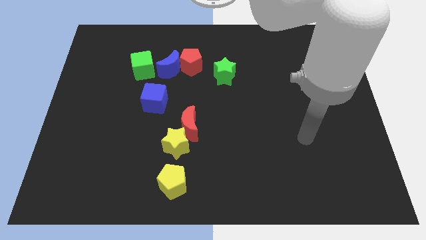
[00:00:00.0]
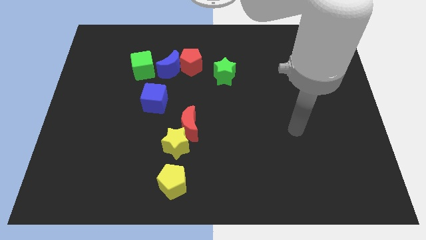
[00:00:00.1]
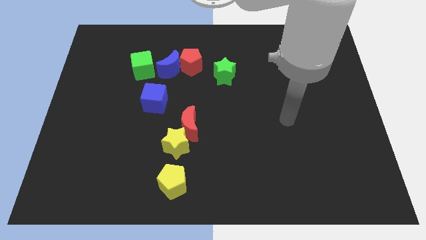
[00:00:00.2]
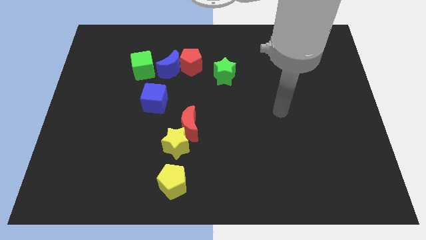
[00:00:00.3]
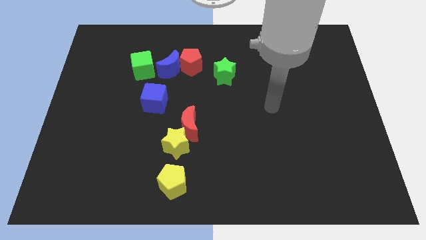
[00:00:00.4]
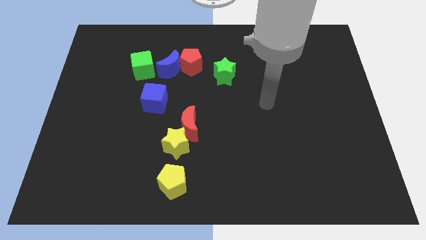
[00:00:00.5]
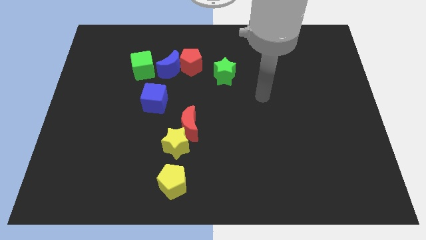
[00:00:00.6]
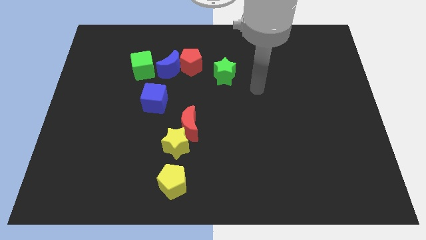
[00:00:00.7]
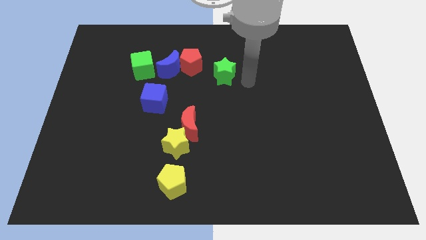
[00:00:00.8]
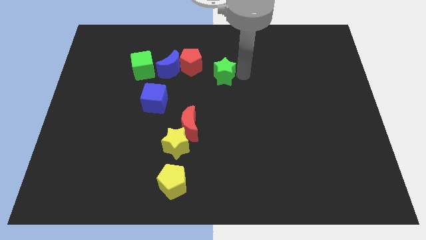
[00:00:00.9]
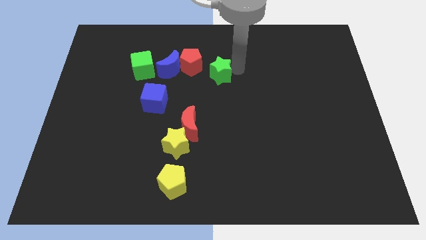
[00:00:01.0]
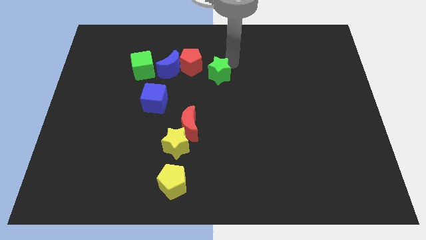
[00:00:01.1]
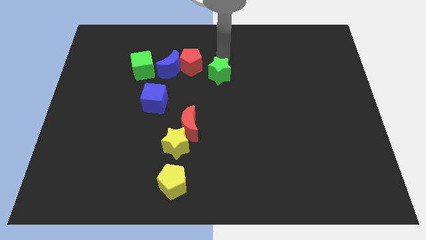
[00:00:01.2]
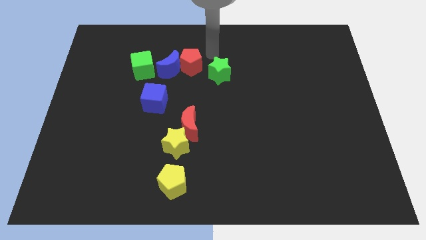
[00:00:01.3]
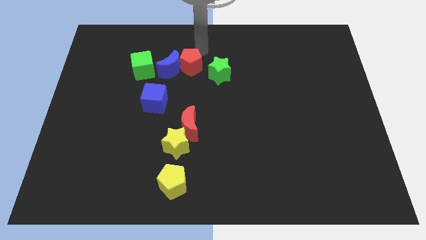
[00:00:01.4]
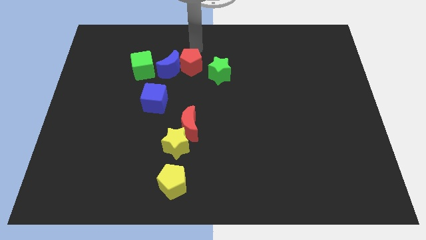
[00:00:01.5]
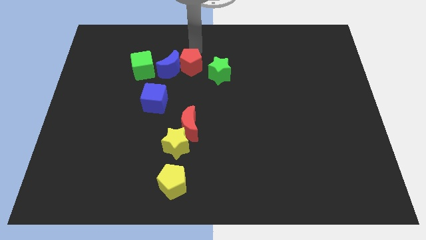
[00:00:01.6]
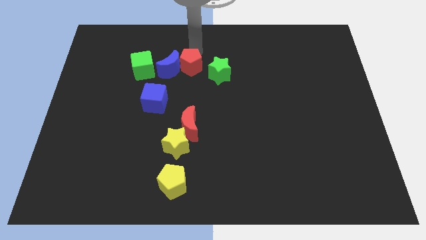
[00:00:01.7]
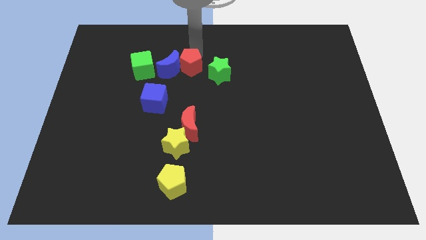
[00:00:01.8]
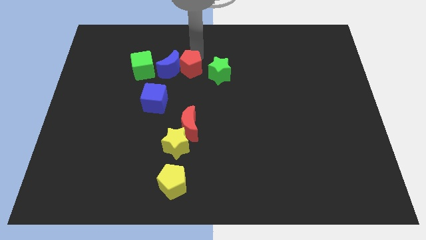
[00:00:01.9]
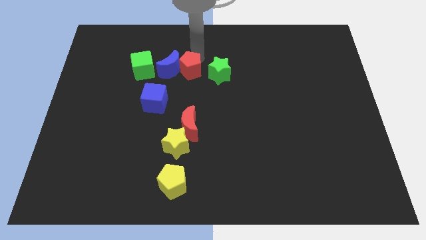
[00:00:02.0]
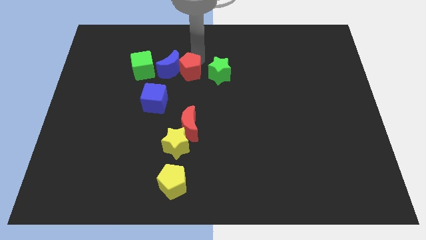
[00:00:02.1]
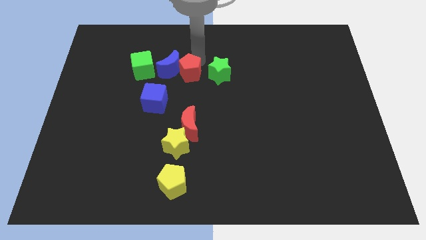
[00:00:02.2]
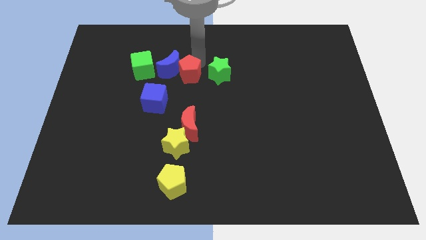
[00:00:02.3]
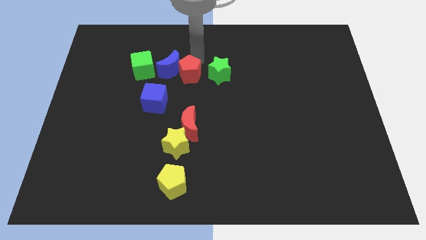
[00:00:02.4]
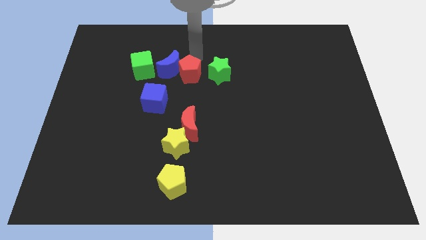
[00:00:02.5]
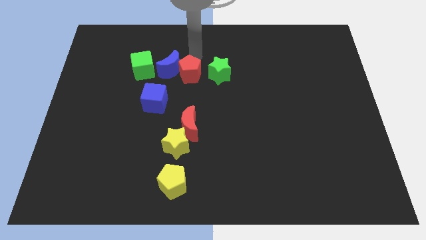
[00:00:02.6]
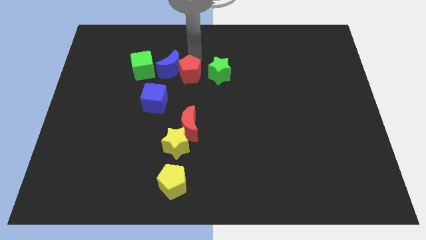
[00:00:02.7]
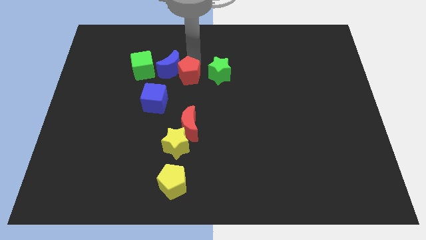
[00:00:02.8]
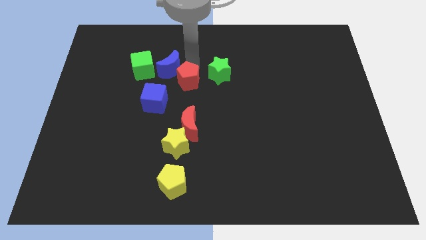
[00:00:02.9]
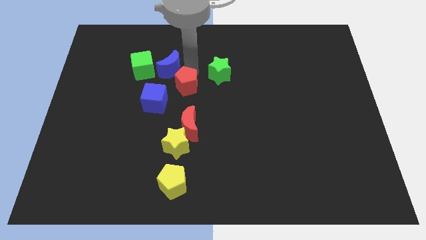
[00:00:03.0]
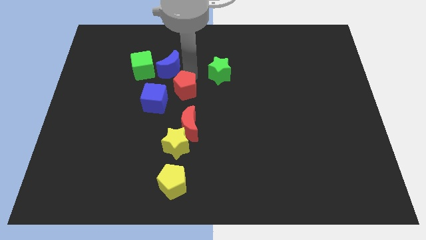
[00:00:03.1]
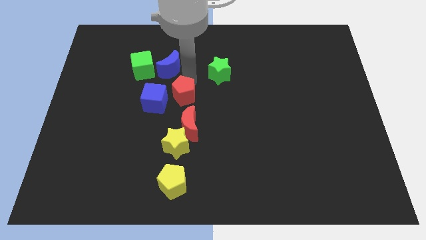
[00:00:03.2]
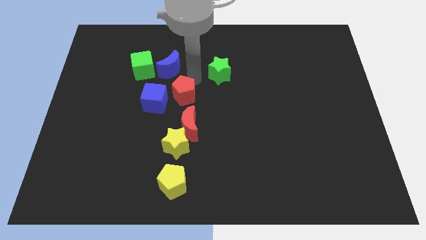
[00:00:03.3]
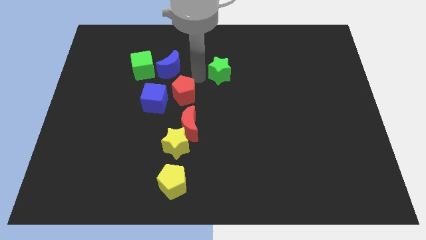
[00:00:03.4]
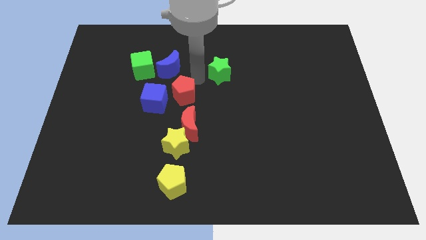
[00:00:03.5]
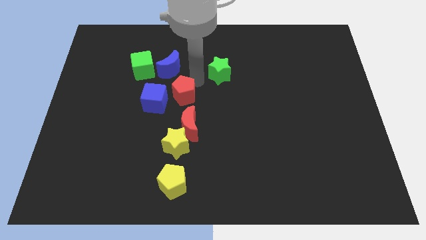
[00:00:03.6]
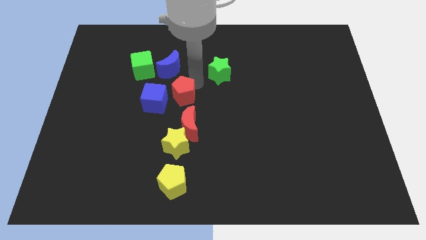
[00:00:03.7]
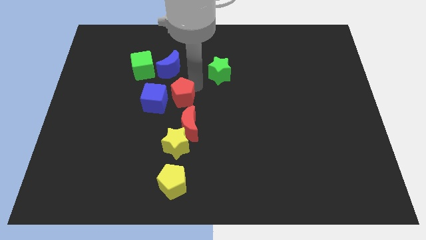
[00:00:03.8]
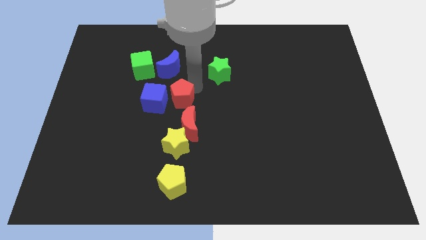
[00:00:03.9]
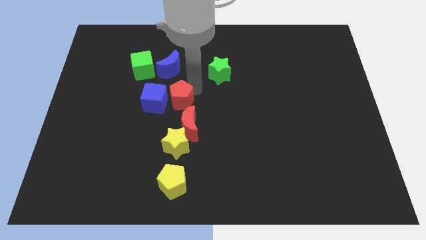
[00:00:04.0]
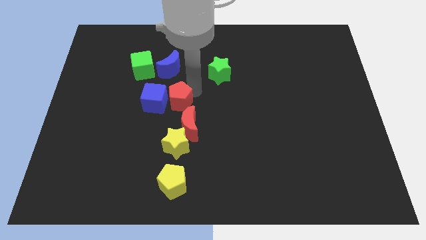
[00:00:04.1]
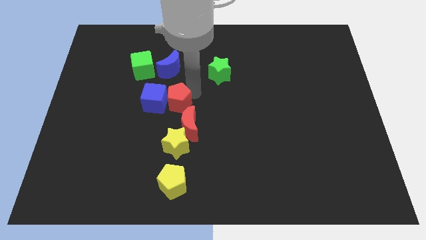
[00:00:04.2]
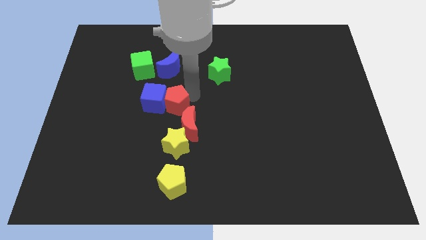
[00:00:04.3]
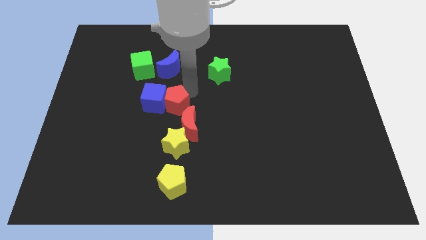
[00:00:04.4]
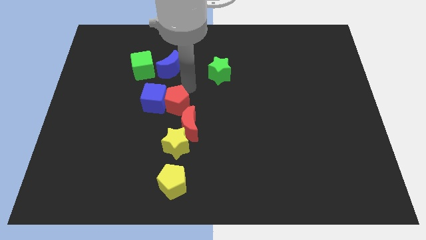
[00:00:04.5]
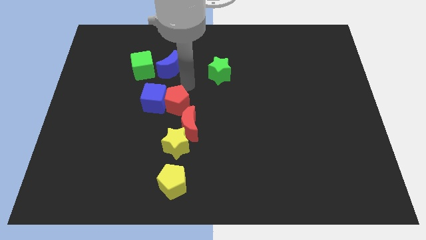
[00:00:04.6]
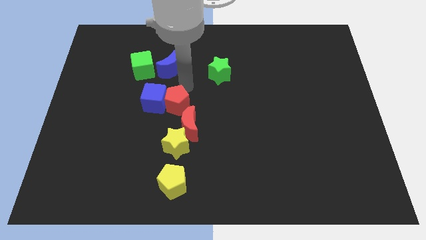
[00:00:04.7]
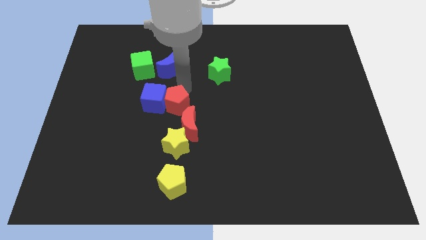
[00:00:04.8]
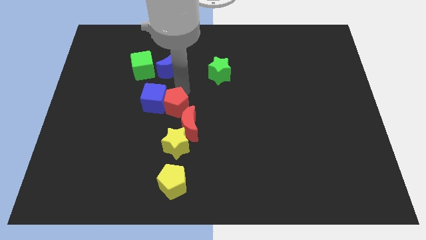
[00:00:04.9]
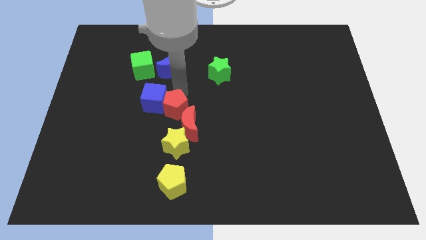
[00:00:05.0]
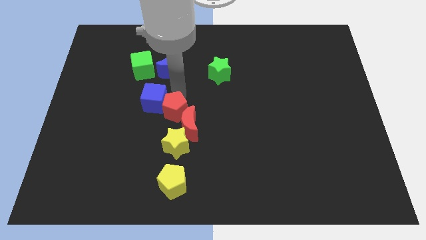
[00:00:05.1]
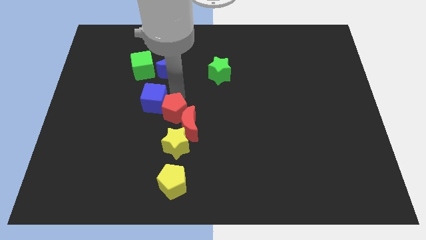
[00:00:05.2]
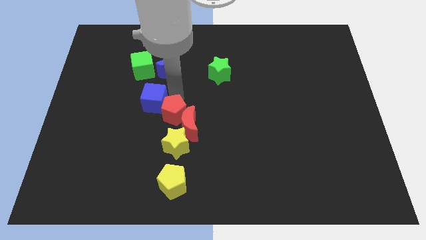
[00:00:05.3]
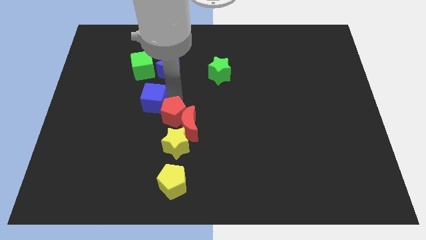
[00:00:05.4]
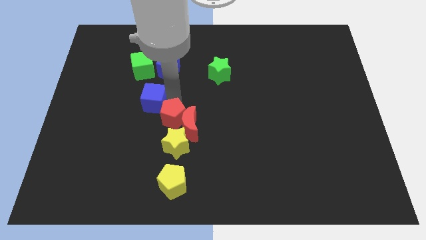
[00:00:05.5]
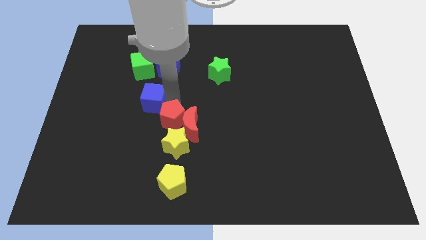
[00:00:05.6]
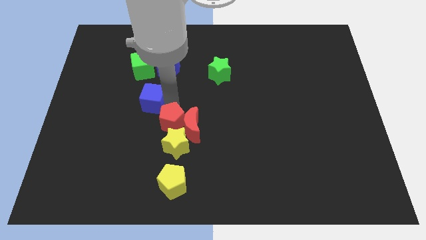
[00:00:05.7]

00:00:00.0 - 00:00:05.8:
put the red pentagon towards the yellow star

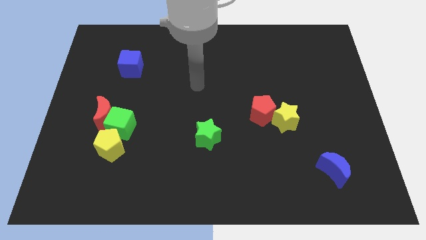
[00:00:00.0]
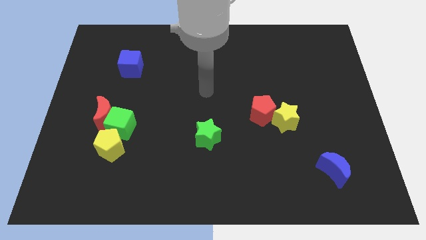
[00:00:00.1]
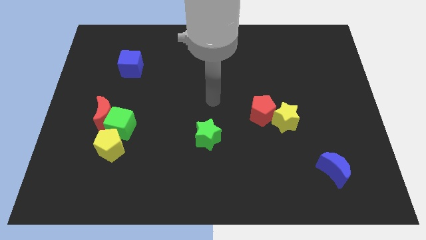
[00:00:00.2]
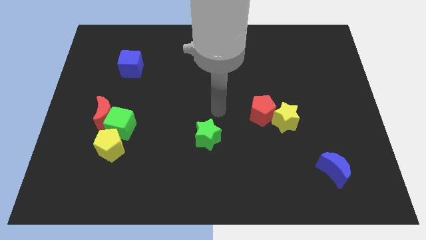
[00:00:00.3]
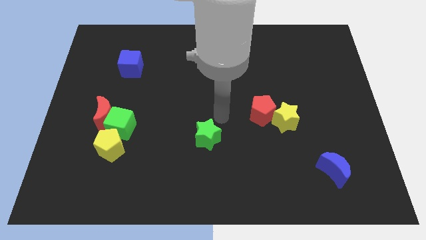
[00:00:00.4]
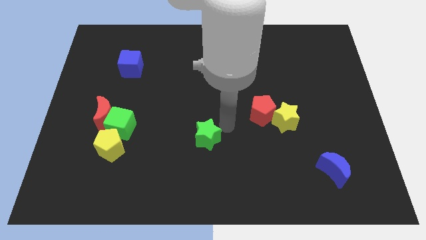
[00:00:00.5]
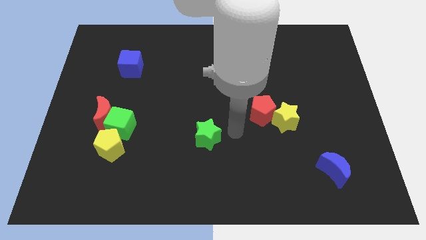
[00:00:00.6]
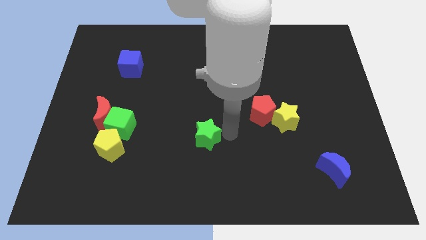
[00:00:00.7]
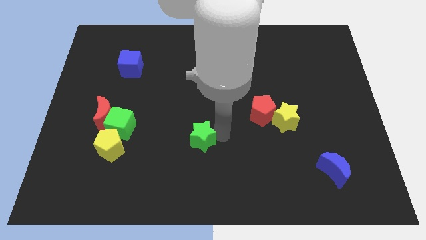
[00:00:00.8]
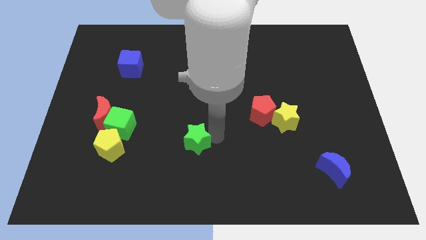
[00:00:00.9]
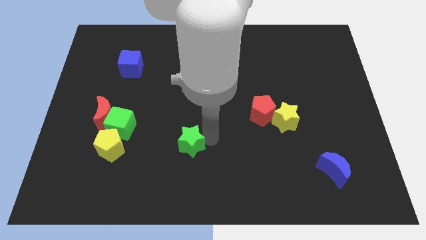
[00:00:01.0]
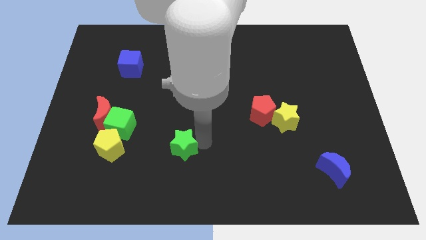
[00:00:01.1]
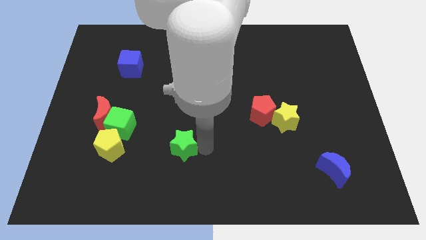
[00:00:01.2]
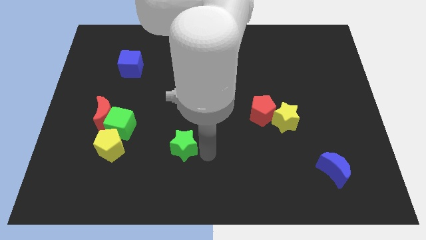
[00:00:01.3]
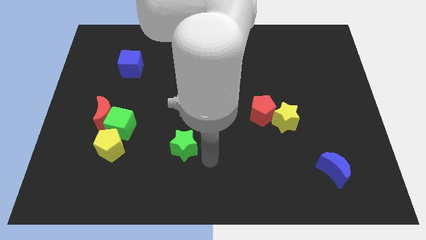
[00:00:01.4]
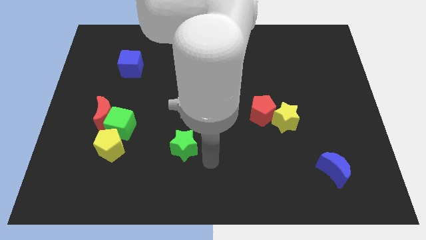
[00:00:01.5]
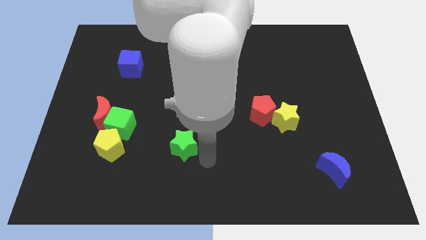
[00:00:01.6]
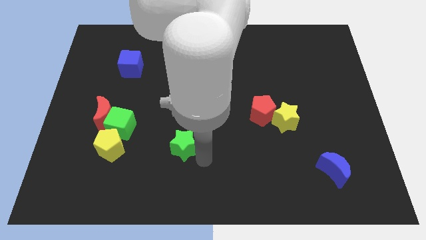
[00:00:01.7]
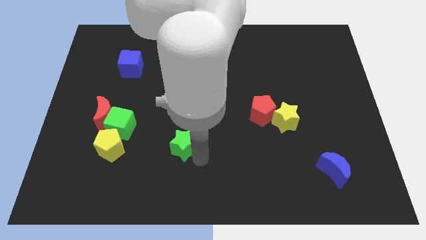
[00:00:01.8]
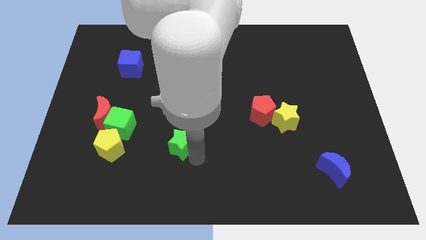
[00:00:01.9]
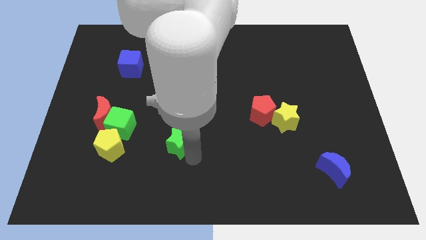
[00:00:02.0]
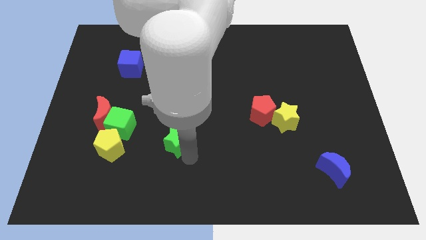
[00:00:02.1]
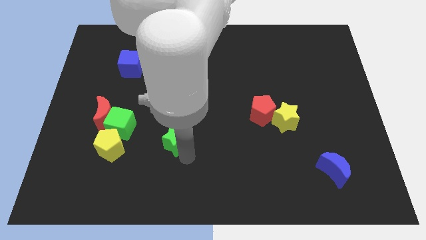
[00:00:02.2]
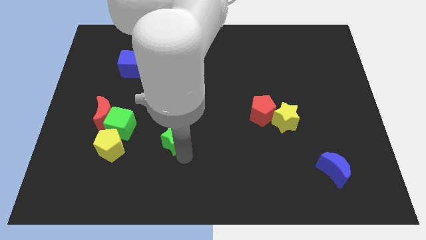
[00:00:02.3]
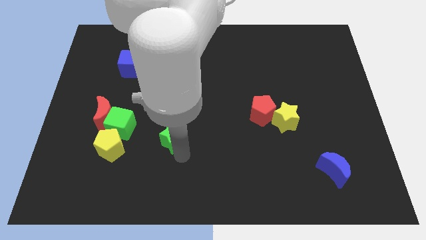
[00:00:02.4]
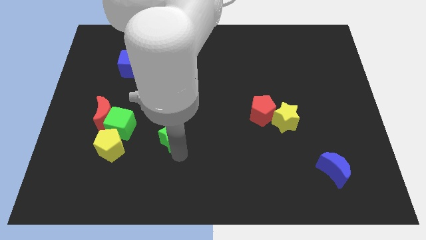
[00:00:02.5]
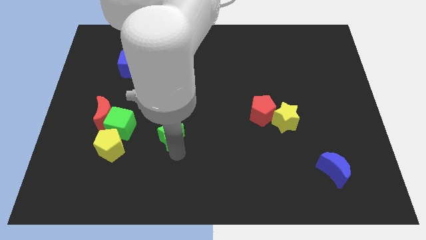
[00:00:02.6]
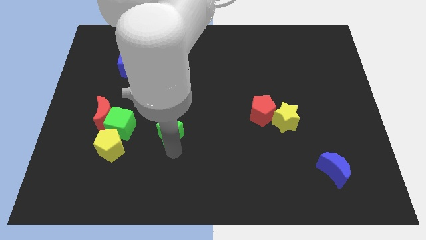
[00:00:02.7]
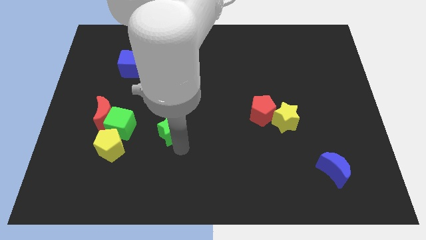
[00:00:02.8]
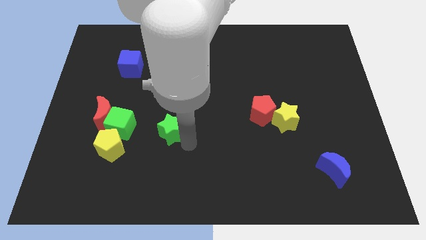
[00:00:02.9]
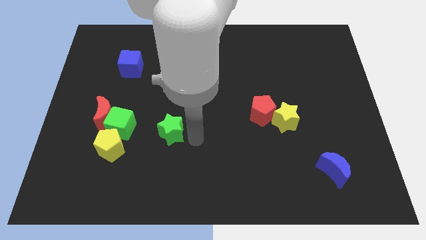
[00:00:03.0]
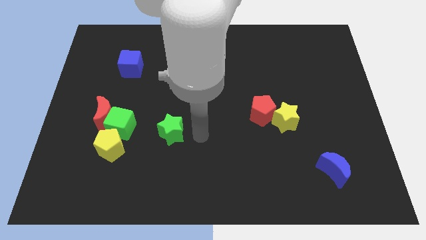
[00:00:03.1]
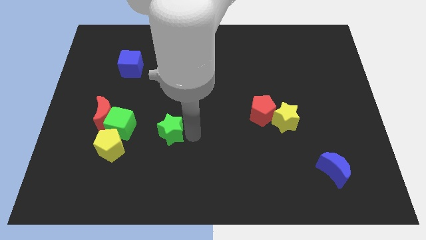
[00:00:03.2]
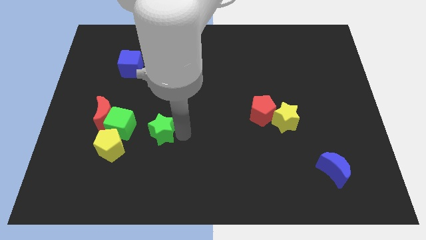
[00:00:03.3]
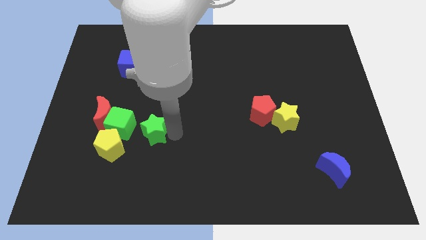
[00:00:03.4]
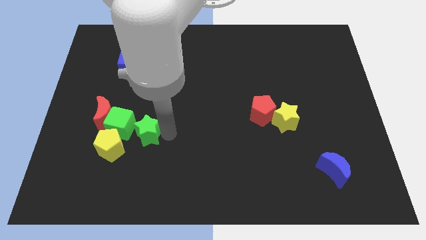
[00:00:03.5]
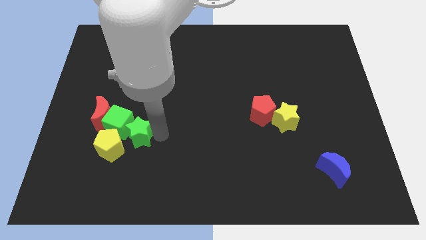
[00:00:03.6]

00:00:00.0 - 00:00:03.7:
put the green star to the green cube
